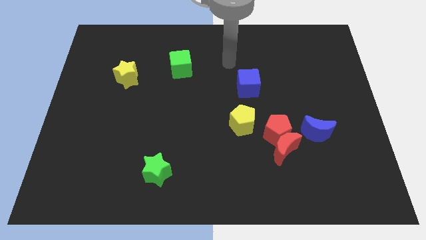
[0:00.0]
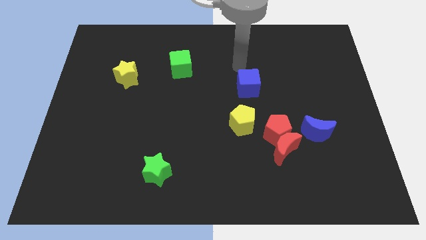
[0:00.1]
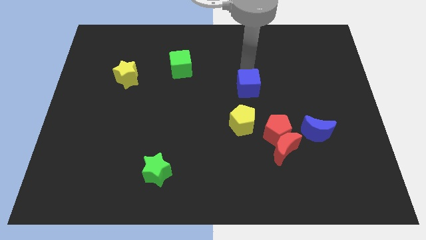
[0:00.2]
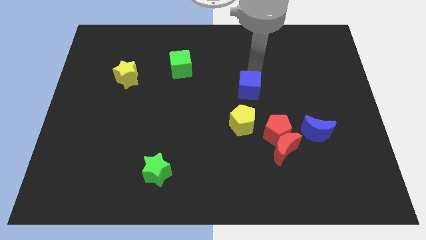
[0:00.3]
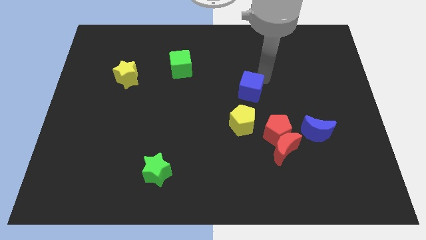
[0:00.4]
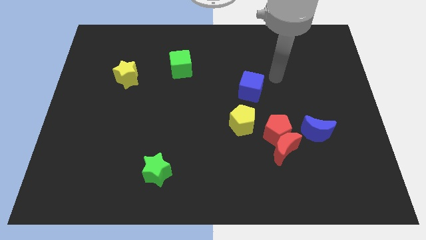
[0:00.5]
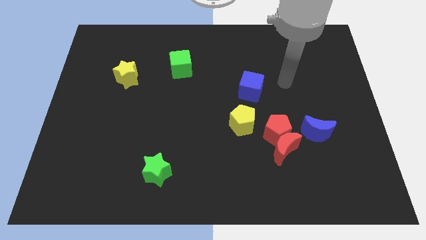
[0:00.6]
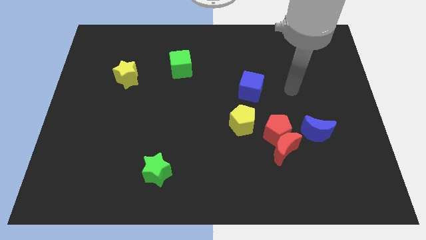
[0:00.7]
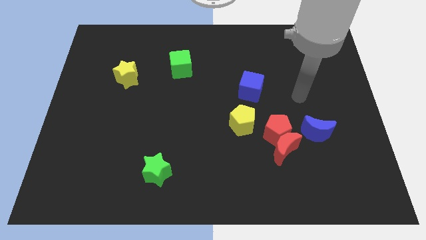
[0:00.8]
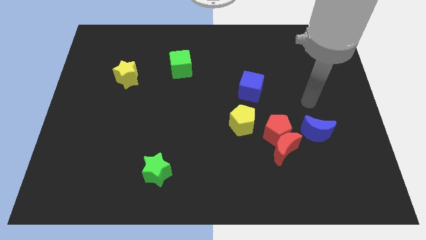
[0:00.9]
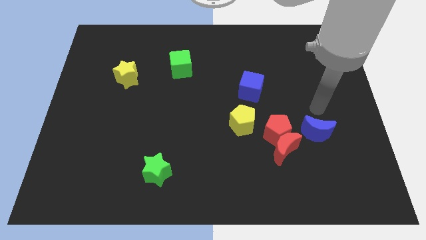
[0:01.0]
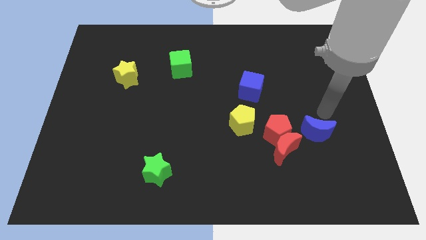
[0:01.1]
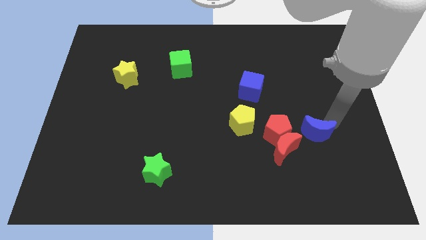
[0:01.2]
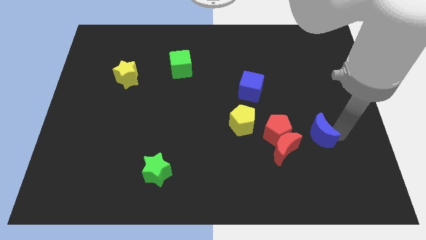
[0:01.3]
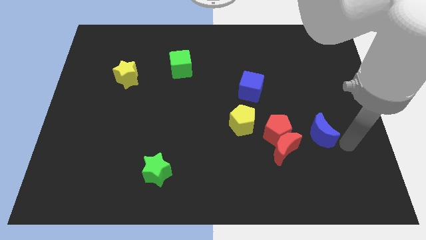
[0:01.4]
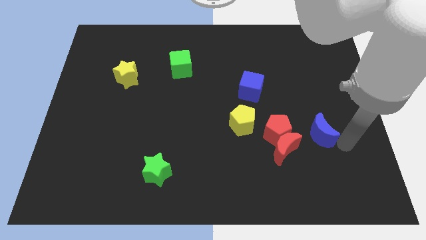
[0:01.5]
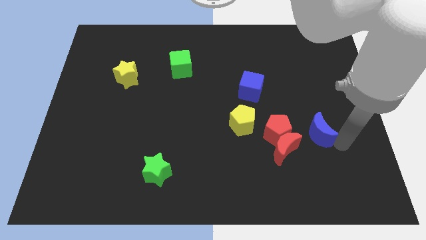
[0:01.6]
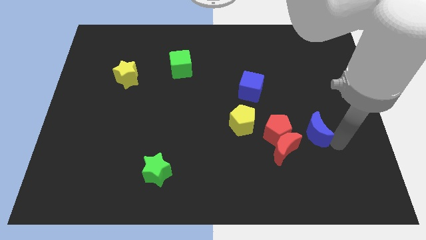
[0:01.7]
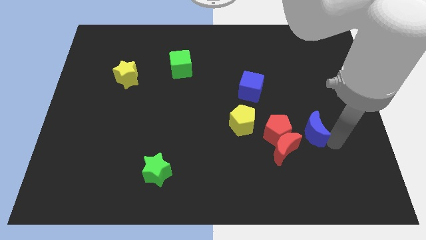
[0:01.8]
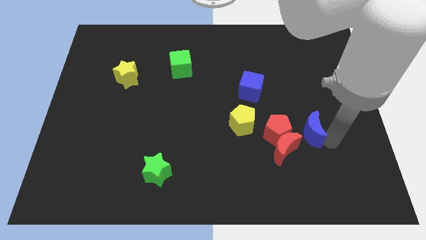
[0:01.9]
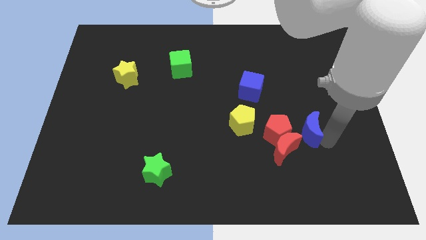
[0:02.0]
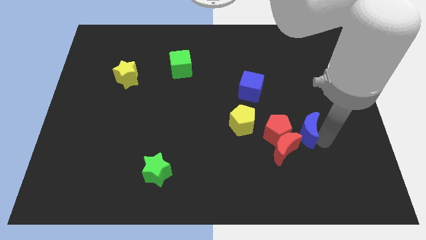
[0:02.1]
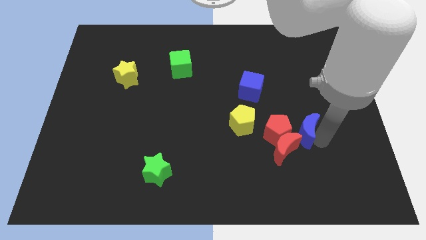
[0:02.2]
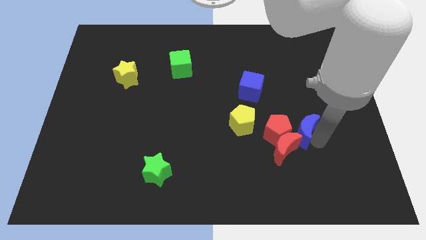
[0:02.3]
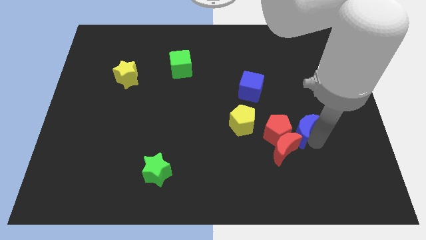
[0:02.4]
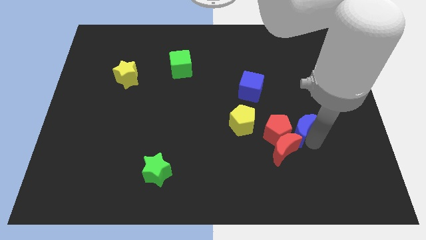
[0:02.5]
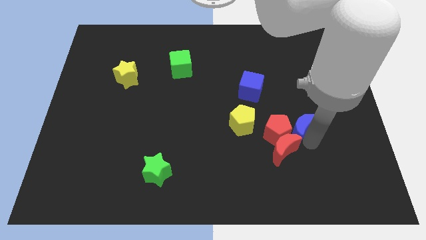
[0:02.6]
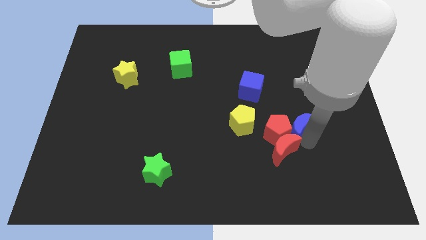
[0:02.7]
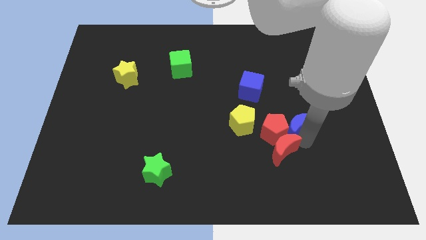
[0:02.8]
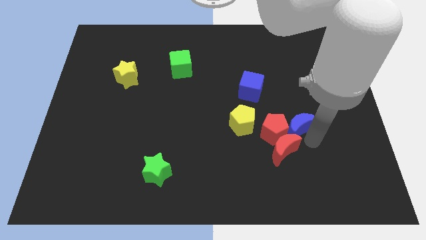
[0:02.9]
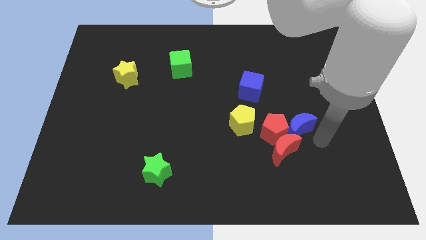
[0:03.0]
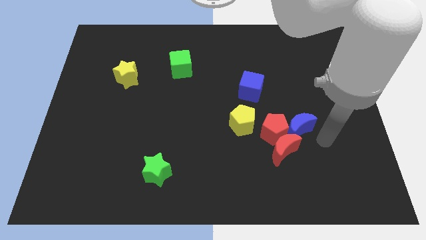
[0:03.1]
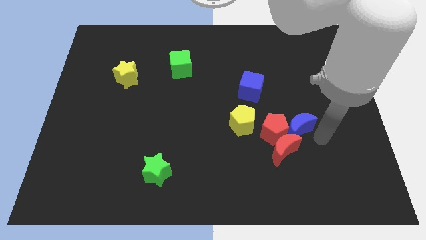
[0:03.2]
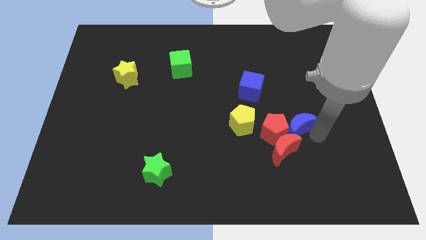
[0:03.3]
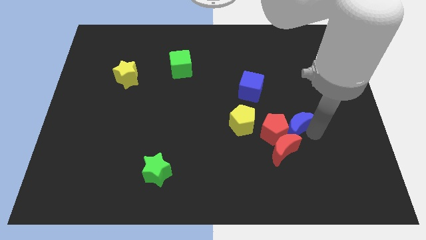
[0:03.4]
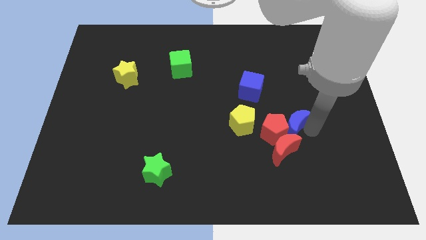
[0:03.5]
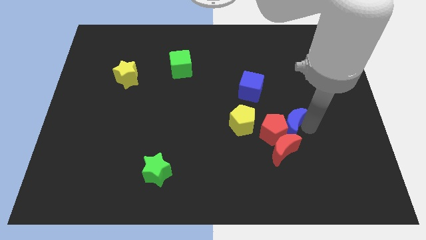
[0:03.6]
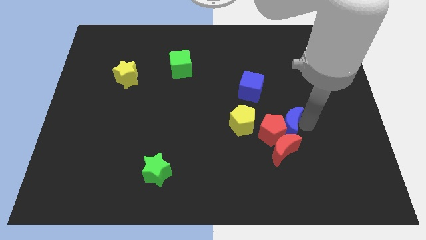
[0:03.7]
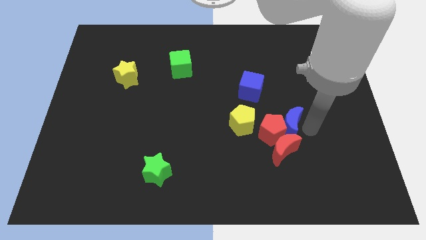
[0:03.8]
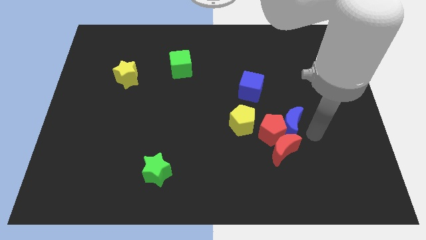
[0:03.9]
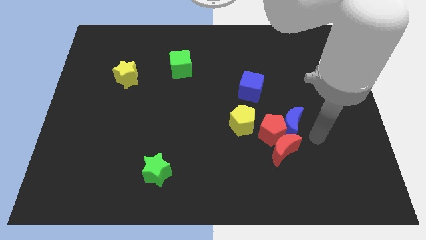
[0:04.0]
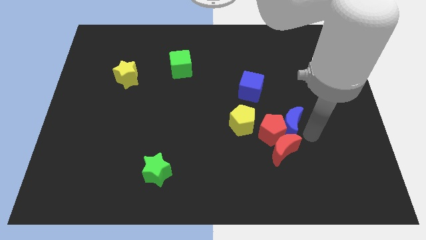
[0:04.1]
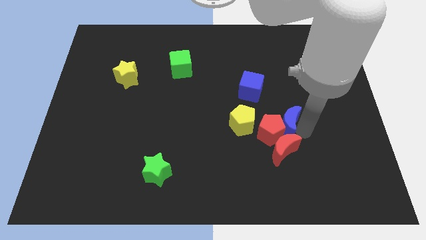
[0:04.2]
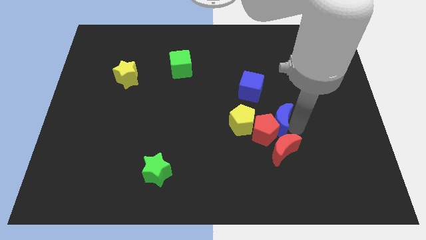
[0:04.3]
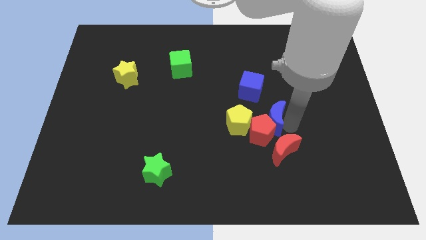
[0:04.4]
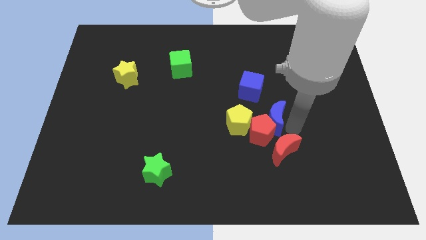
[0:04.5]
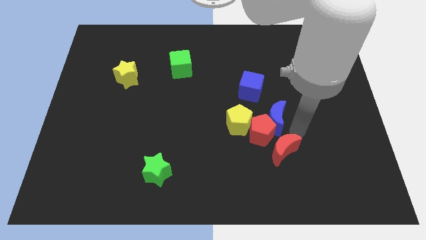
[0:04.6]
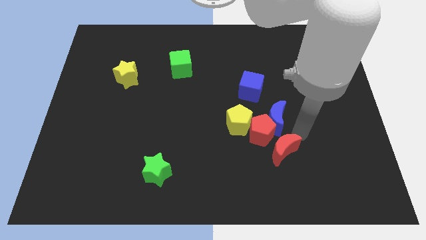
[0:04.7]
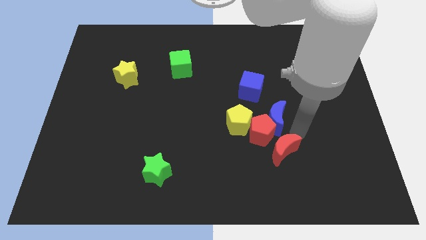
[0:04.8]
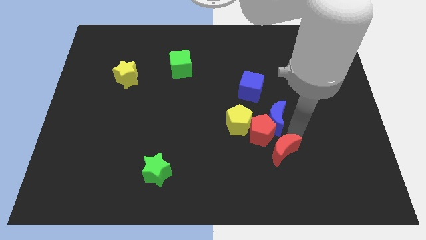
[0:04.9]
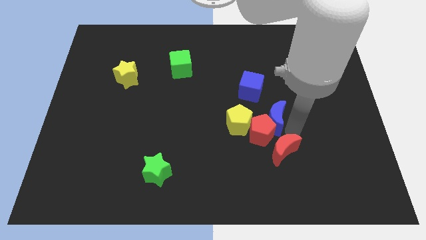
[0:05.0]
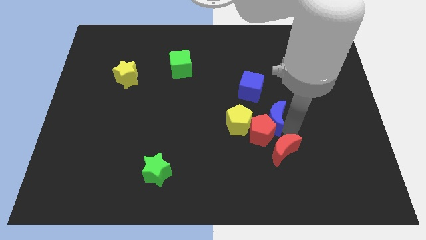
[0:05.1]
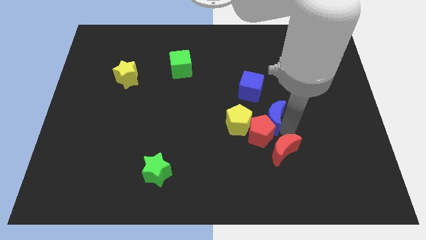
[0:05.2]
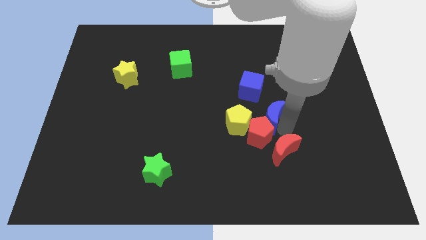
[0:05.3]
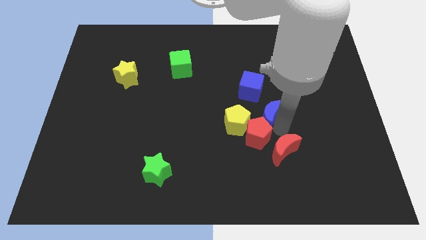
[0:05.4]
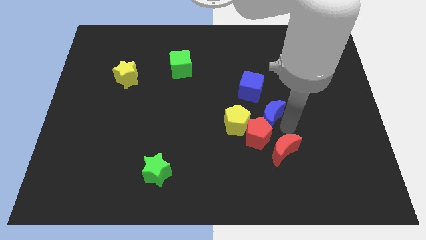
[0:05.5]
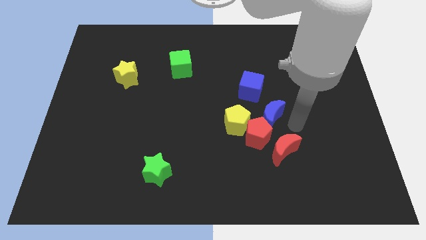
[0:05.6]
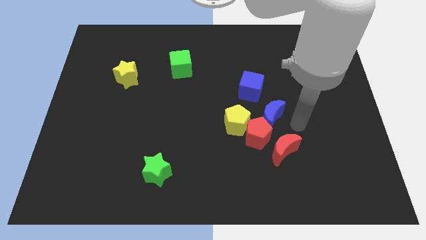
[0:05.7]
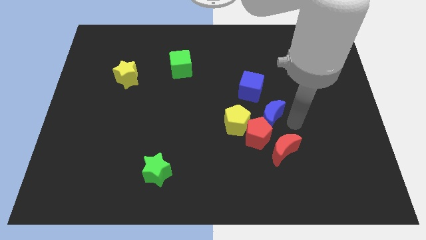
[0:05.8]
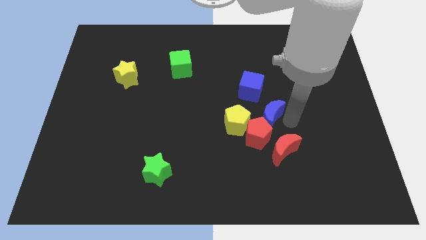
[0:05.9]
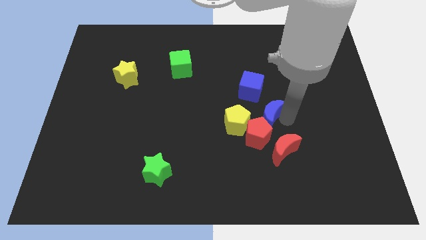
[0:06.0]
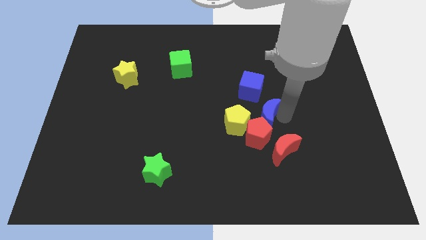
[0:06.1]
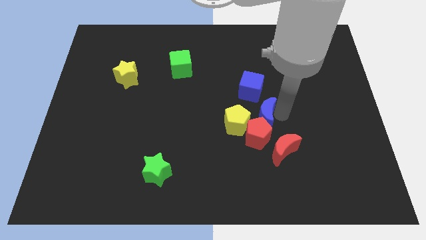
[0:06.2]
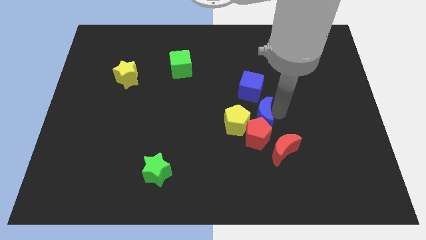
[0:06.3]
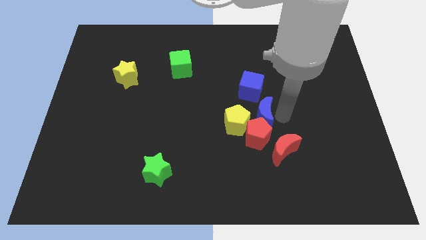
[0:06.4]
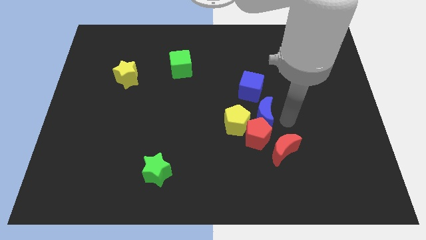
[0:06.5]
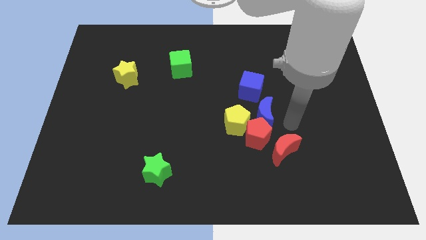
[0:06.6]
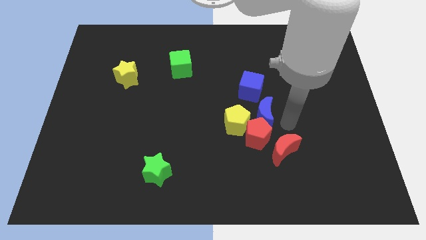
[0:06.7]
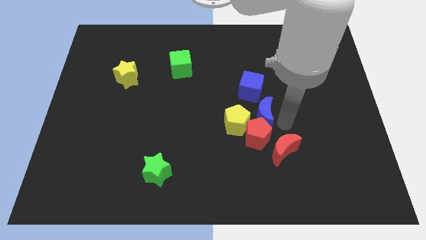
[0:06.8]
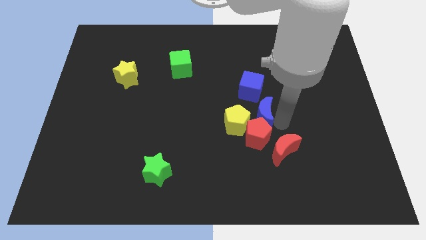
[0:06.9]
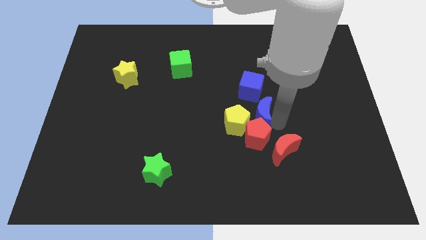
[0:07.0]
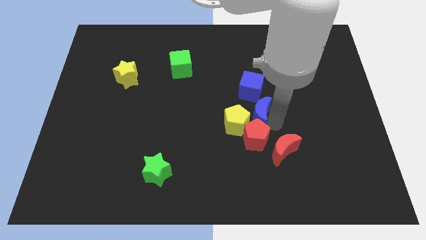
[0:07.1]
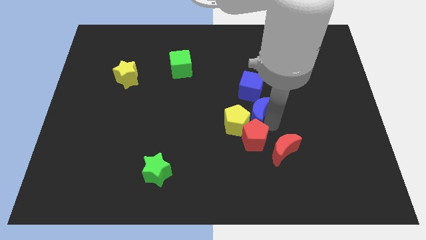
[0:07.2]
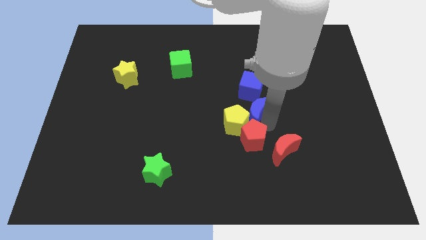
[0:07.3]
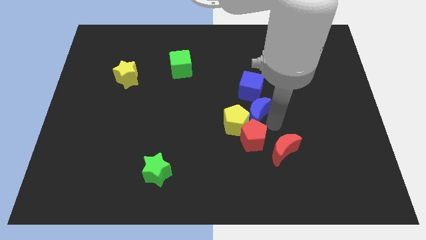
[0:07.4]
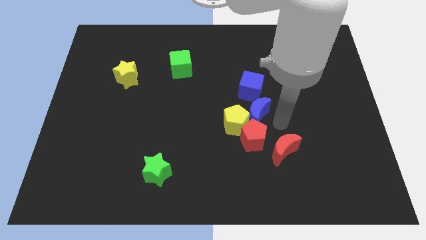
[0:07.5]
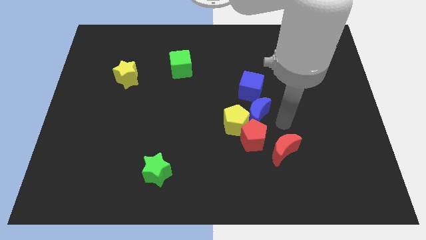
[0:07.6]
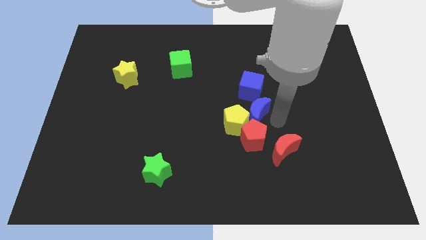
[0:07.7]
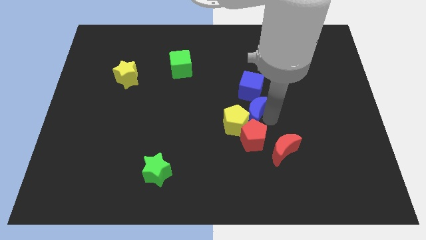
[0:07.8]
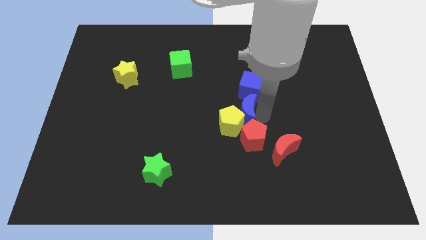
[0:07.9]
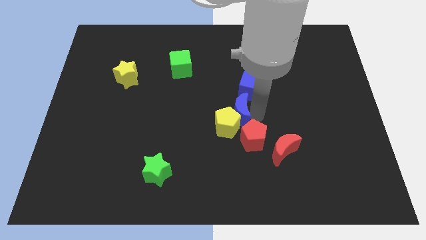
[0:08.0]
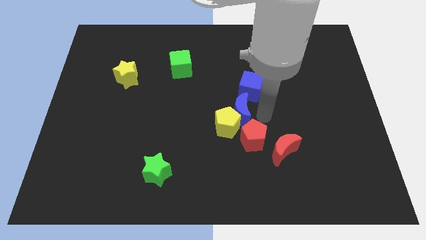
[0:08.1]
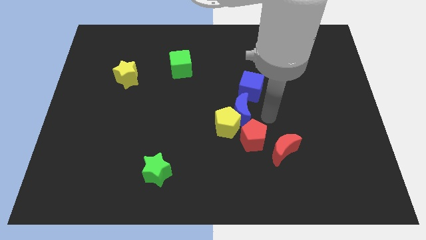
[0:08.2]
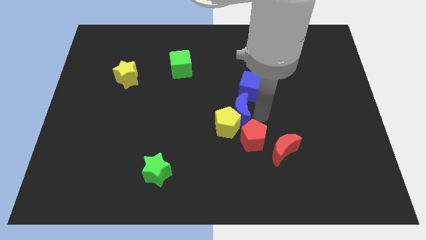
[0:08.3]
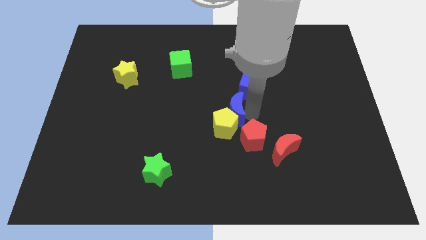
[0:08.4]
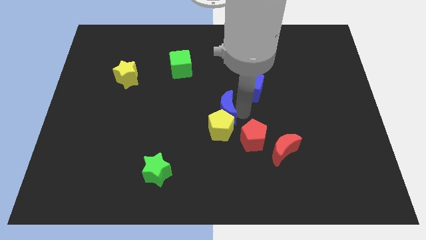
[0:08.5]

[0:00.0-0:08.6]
slide the blue moon to the top left side of the yellow pentagon
